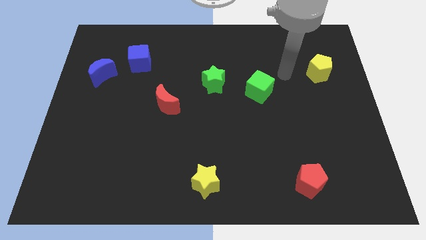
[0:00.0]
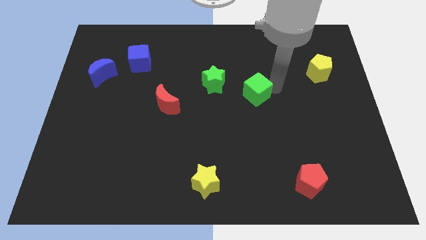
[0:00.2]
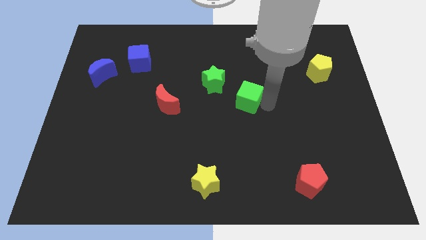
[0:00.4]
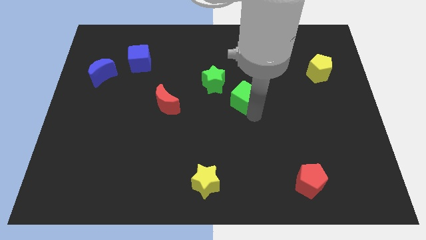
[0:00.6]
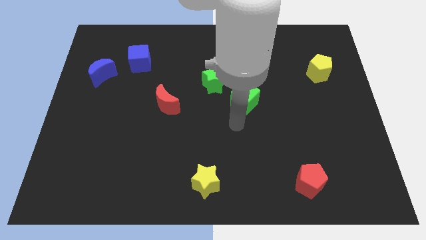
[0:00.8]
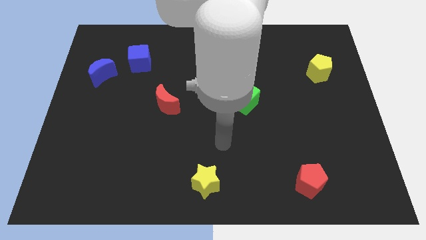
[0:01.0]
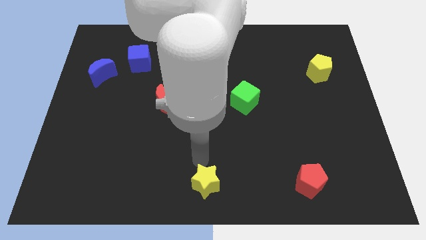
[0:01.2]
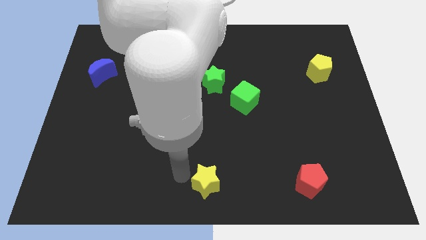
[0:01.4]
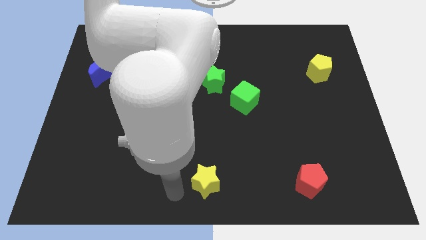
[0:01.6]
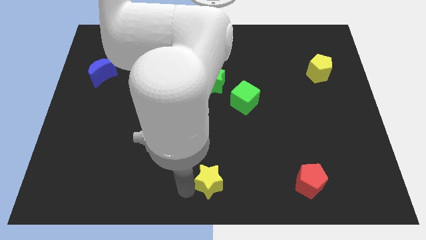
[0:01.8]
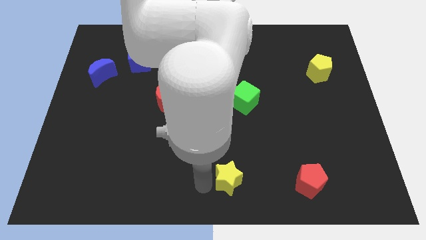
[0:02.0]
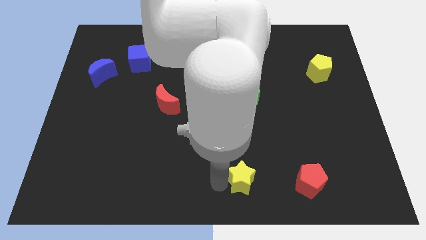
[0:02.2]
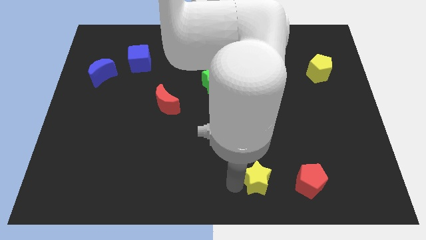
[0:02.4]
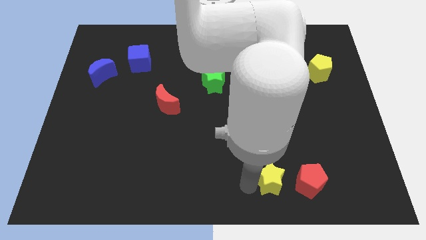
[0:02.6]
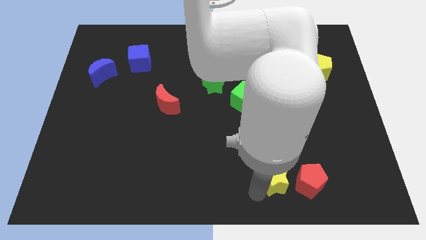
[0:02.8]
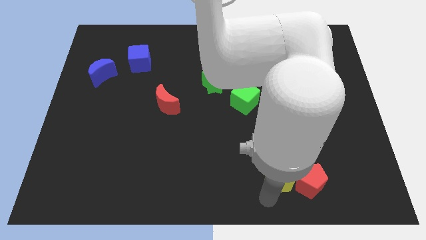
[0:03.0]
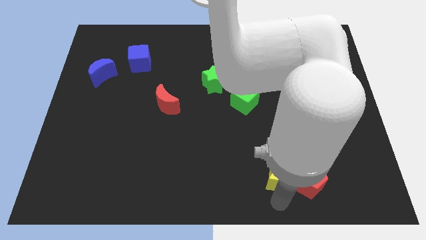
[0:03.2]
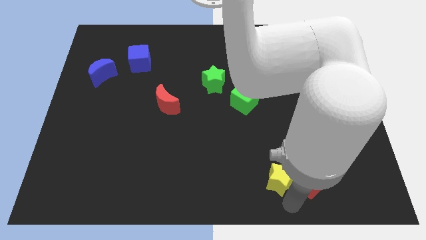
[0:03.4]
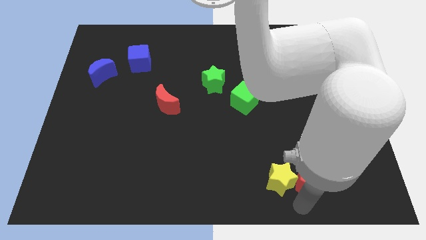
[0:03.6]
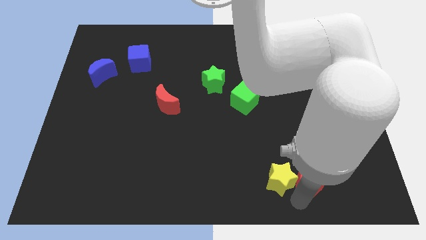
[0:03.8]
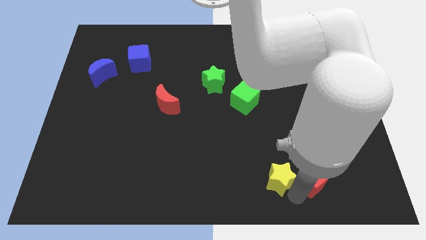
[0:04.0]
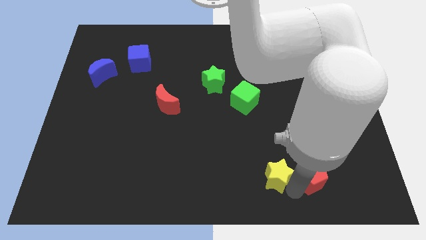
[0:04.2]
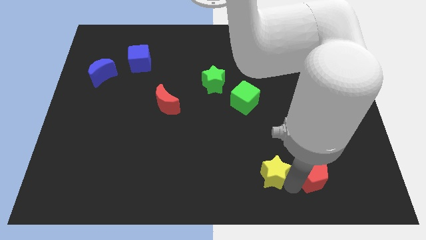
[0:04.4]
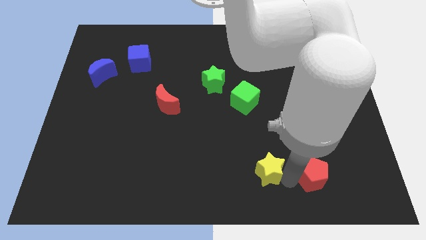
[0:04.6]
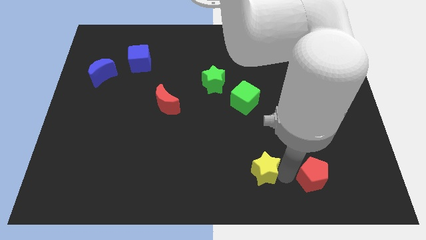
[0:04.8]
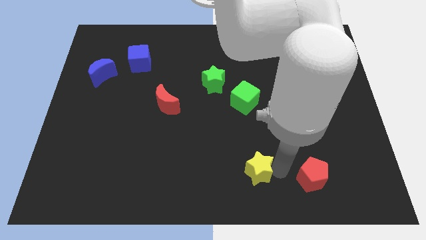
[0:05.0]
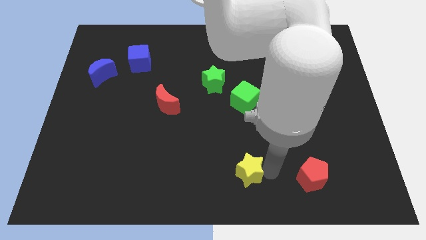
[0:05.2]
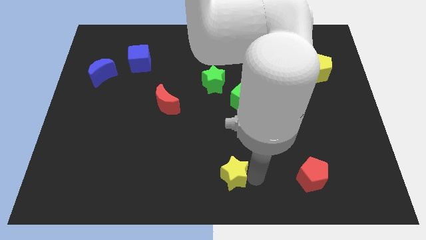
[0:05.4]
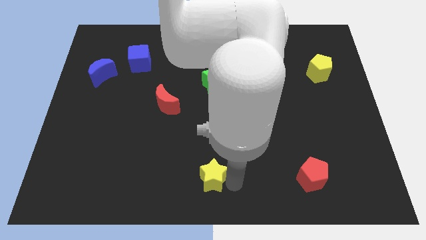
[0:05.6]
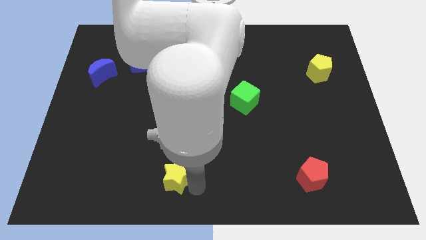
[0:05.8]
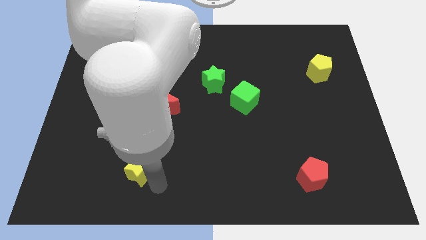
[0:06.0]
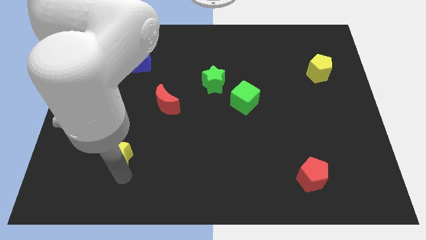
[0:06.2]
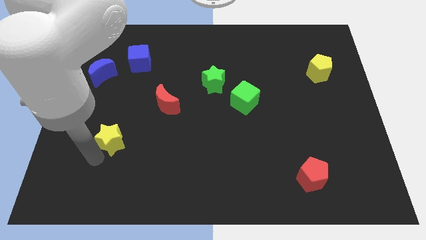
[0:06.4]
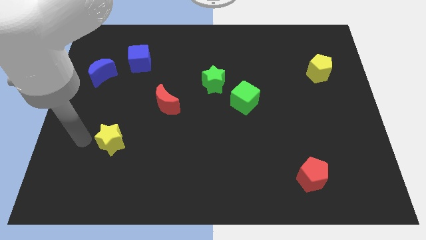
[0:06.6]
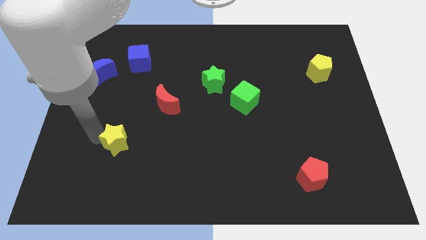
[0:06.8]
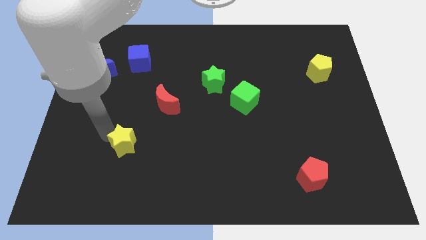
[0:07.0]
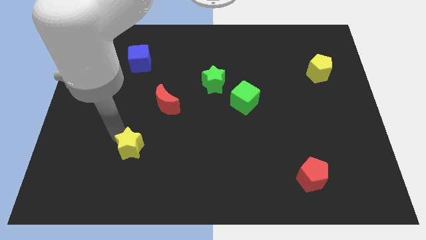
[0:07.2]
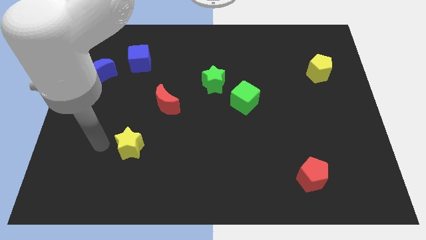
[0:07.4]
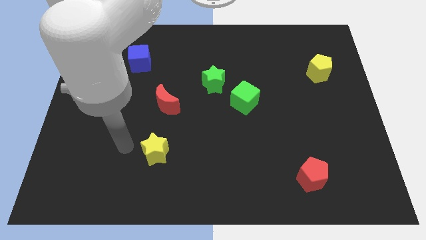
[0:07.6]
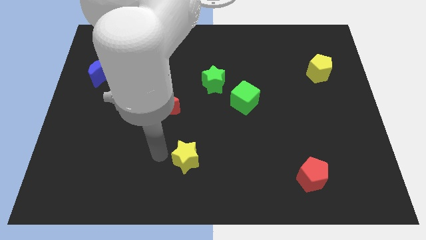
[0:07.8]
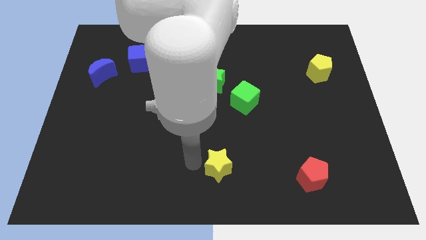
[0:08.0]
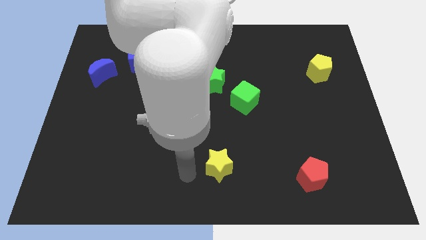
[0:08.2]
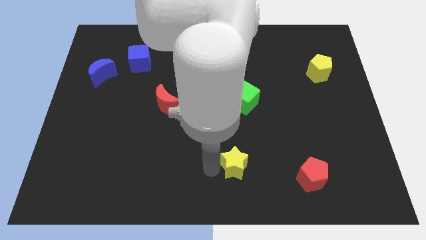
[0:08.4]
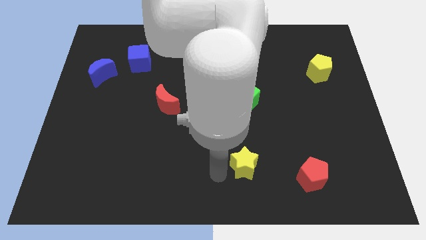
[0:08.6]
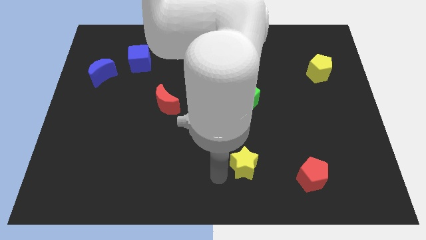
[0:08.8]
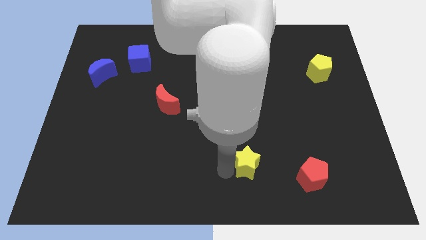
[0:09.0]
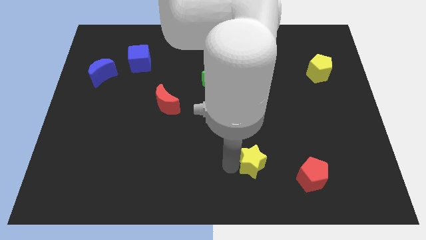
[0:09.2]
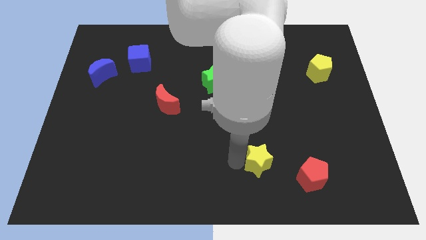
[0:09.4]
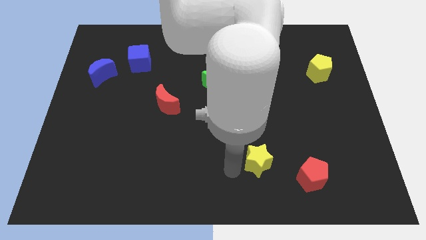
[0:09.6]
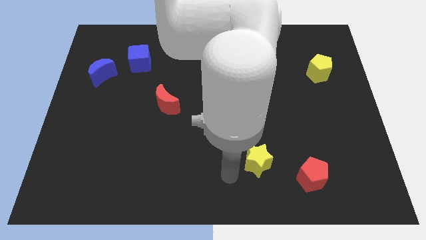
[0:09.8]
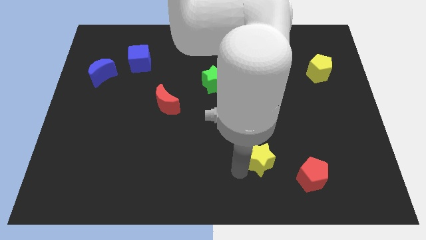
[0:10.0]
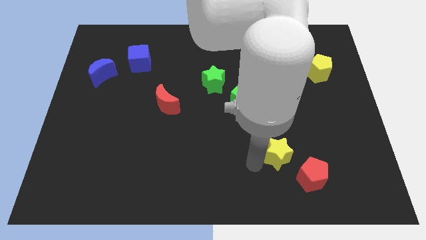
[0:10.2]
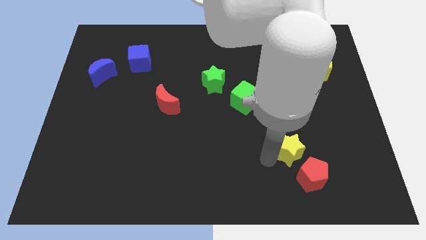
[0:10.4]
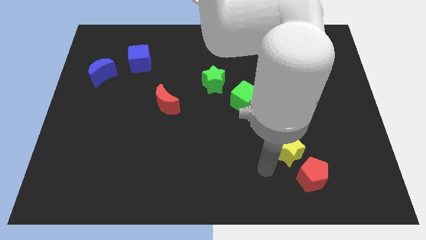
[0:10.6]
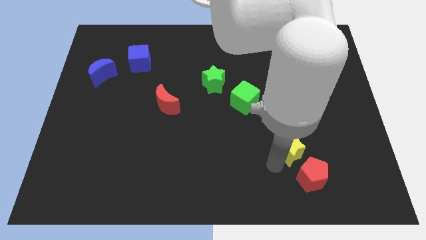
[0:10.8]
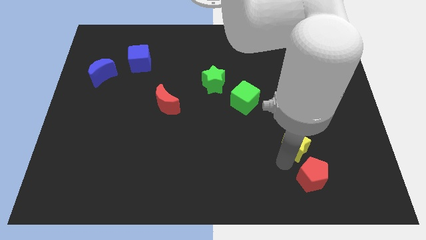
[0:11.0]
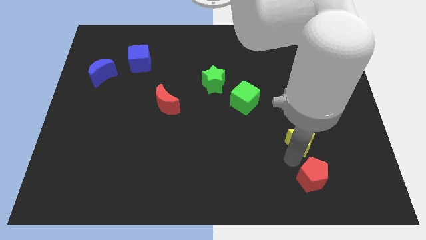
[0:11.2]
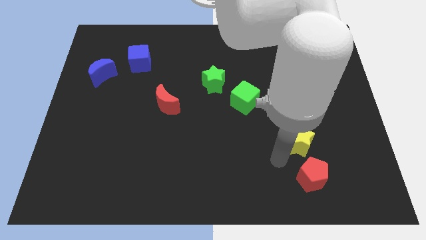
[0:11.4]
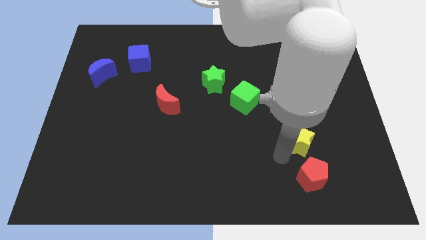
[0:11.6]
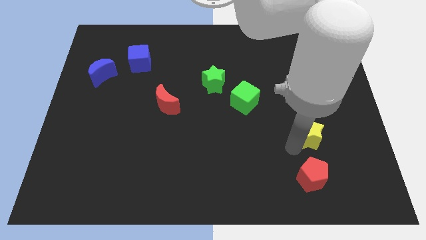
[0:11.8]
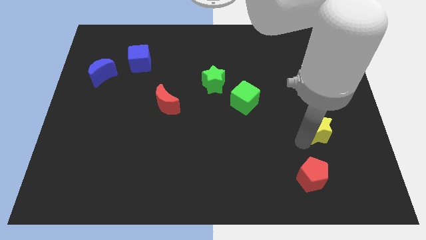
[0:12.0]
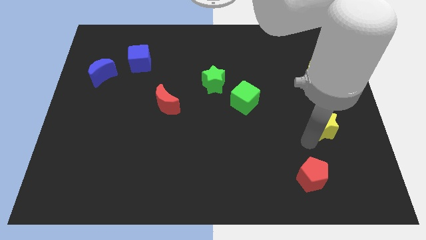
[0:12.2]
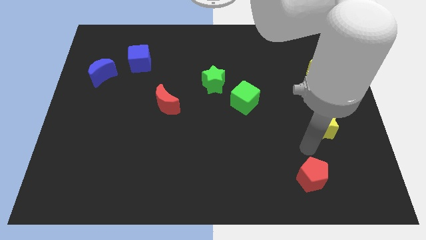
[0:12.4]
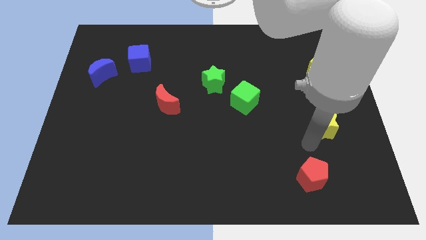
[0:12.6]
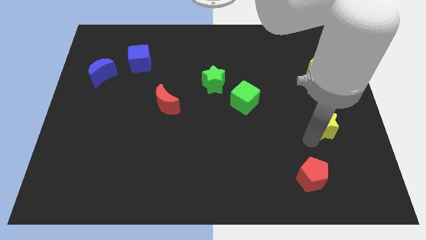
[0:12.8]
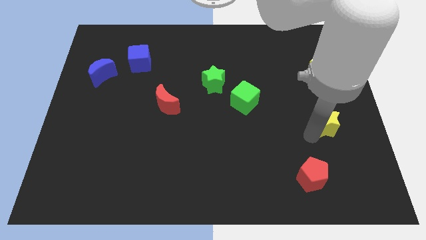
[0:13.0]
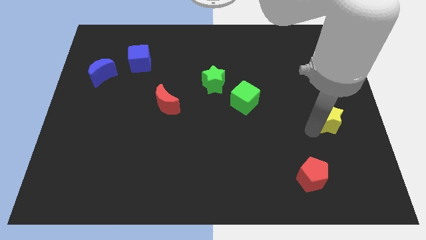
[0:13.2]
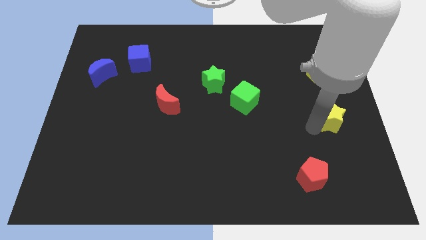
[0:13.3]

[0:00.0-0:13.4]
put the yellow star to the right side

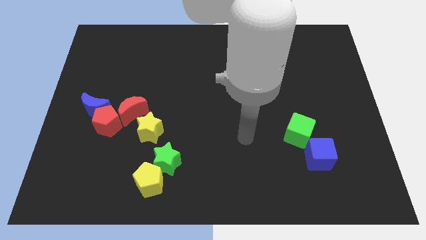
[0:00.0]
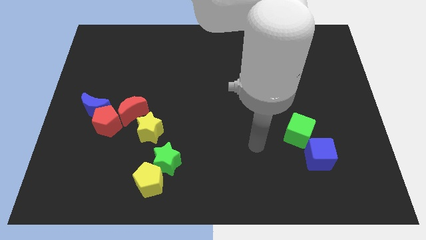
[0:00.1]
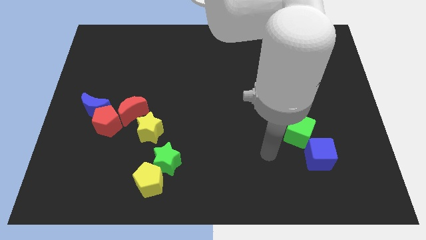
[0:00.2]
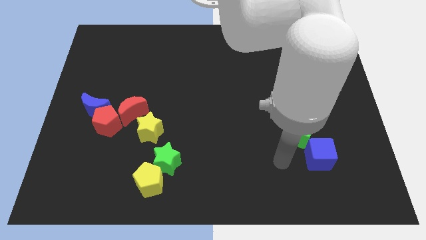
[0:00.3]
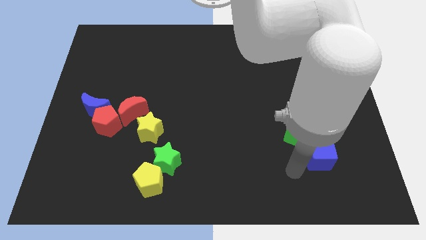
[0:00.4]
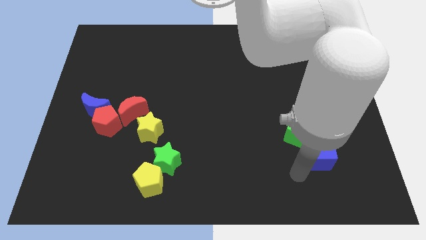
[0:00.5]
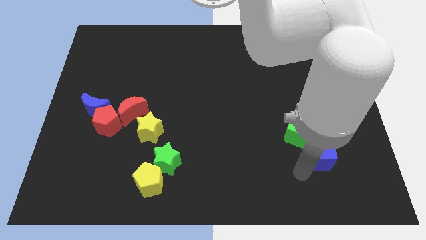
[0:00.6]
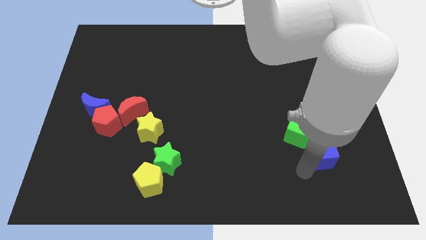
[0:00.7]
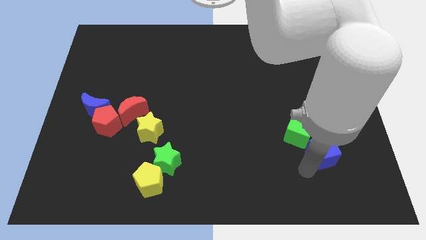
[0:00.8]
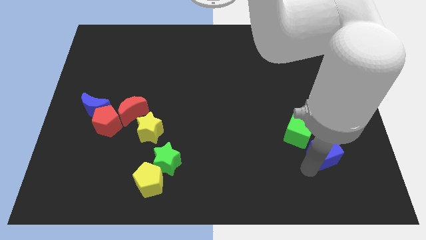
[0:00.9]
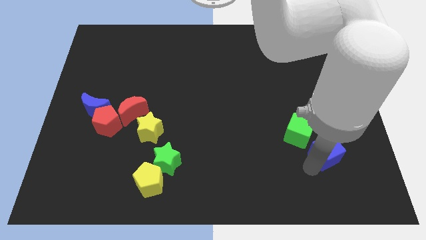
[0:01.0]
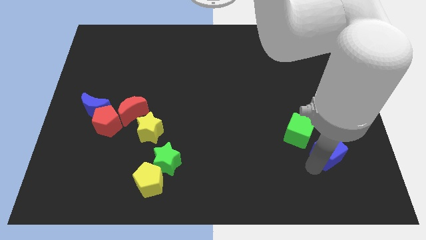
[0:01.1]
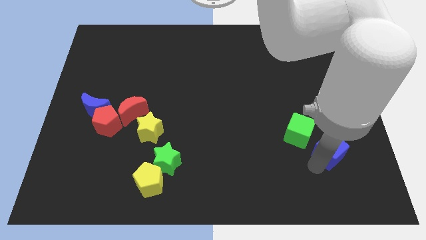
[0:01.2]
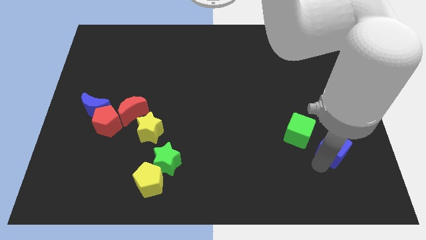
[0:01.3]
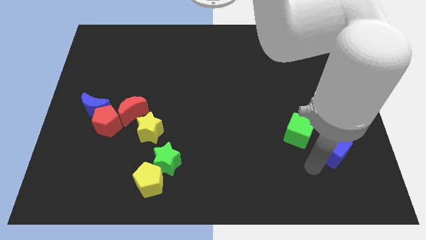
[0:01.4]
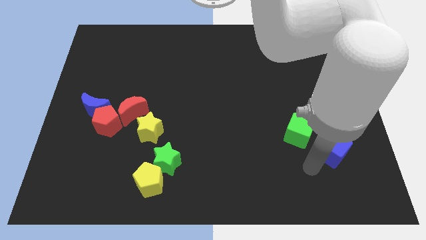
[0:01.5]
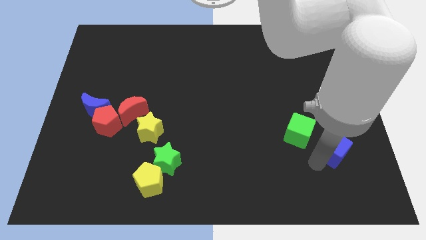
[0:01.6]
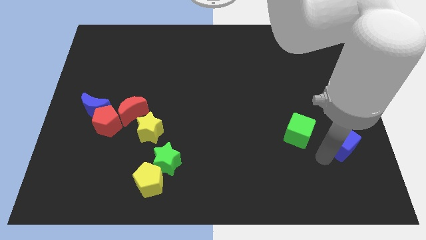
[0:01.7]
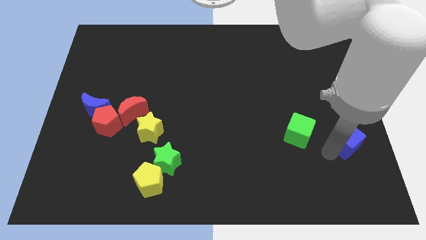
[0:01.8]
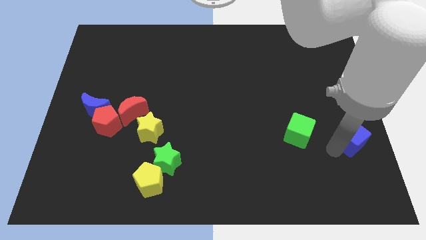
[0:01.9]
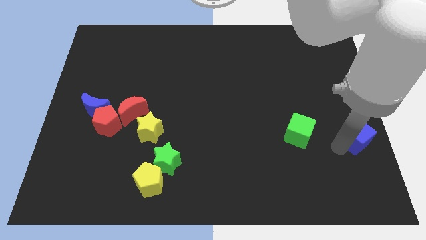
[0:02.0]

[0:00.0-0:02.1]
move the blue cube to the right side
